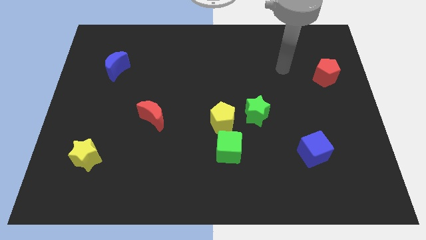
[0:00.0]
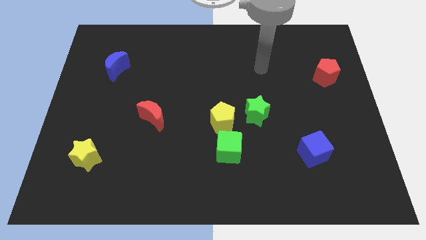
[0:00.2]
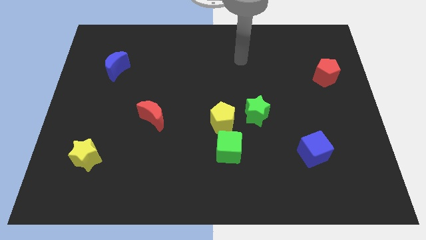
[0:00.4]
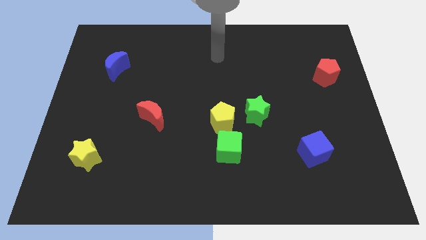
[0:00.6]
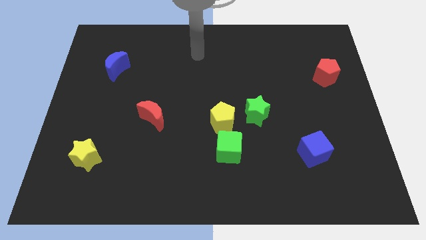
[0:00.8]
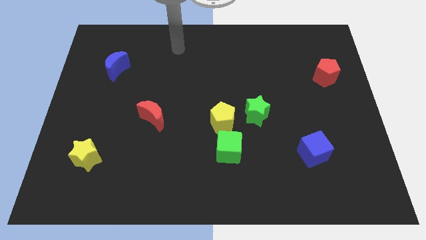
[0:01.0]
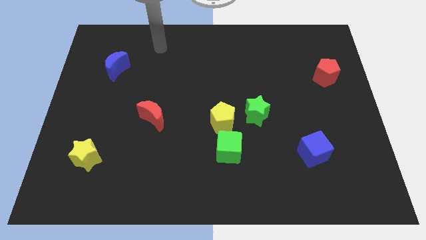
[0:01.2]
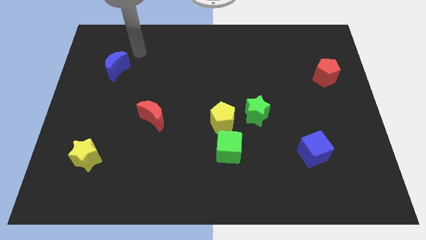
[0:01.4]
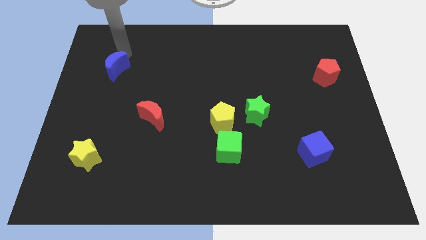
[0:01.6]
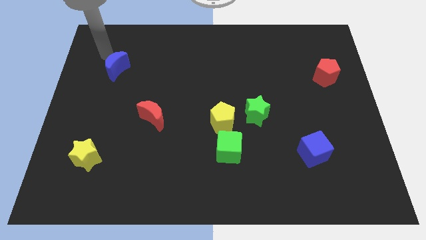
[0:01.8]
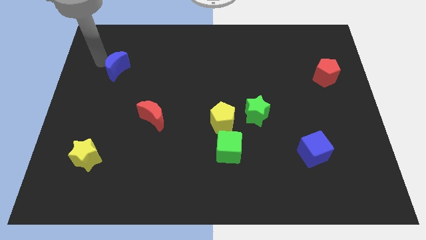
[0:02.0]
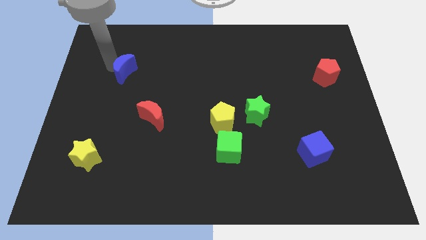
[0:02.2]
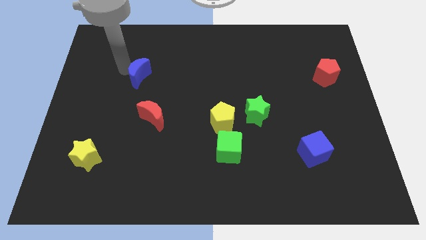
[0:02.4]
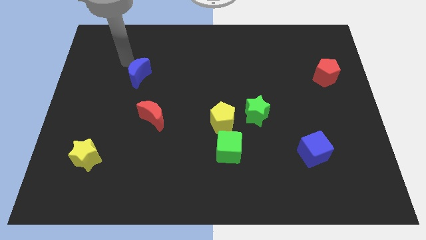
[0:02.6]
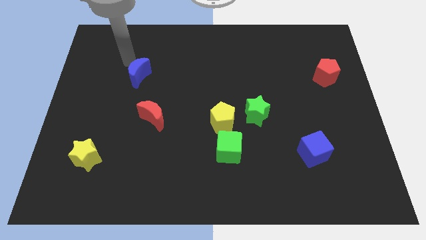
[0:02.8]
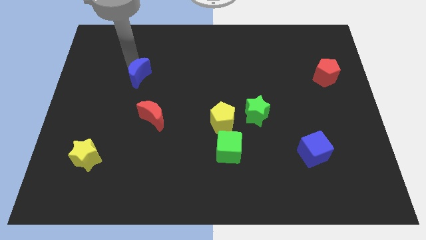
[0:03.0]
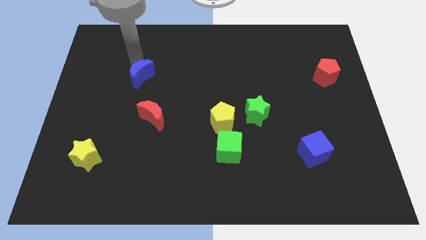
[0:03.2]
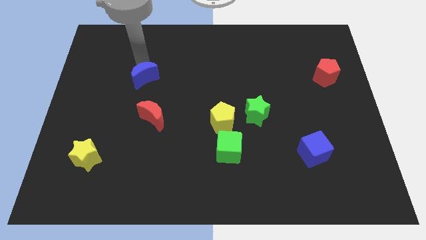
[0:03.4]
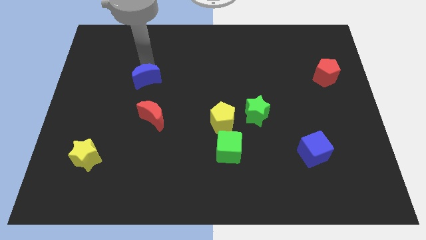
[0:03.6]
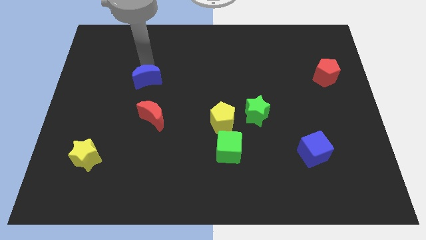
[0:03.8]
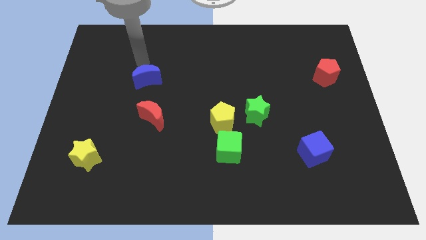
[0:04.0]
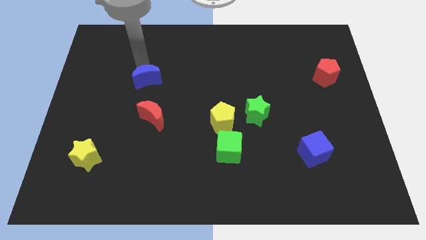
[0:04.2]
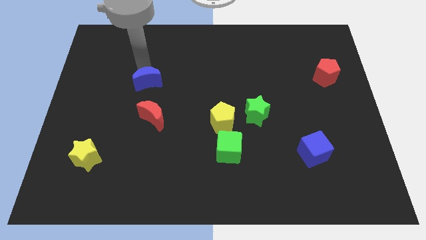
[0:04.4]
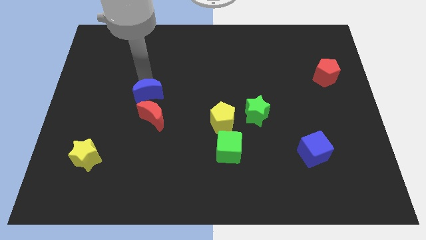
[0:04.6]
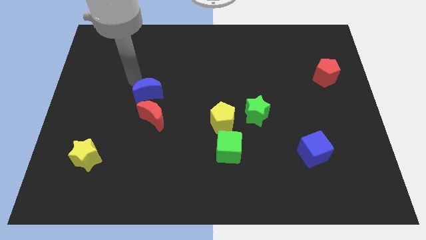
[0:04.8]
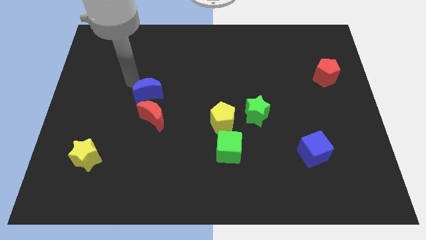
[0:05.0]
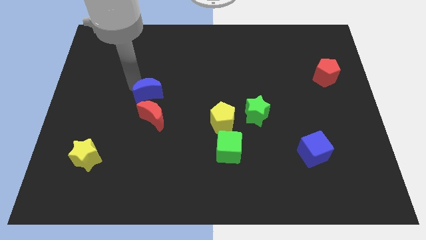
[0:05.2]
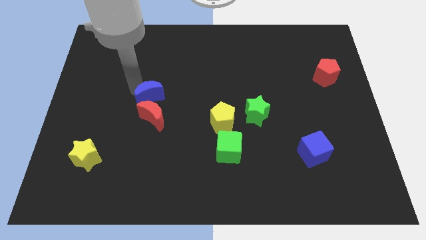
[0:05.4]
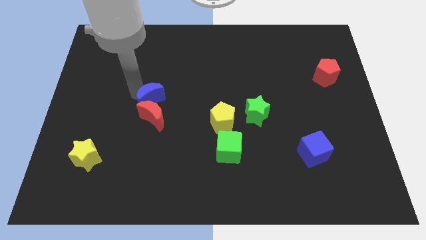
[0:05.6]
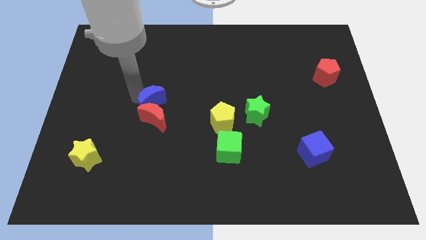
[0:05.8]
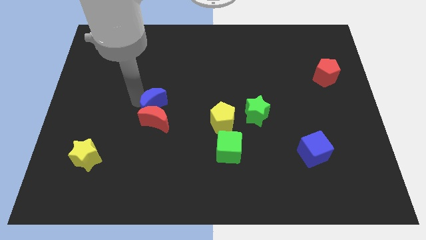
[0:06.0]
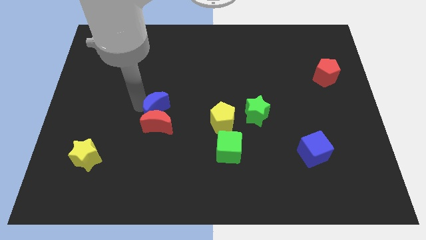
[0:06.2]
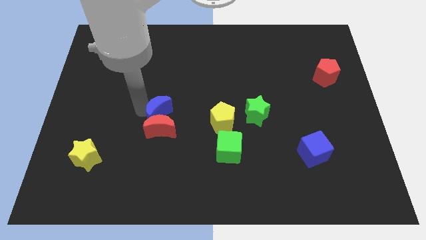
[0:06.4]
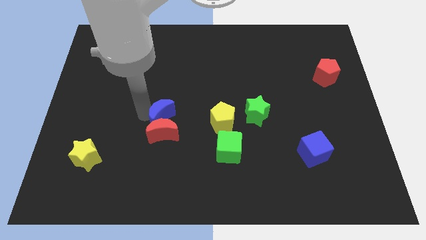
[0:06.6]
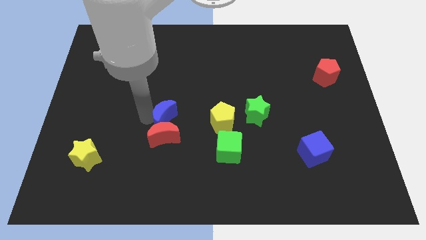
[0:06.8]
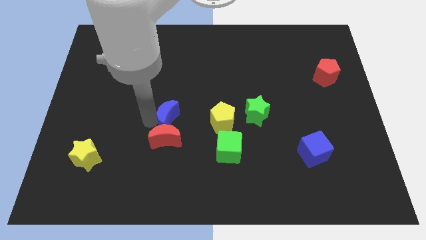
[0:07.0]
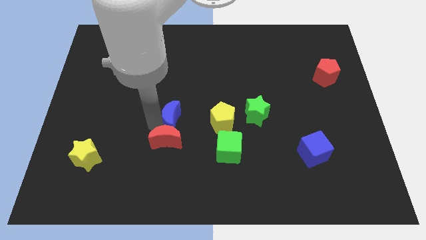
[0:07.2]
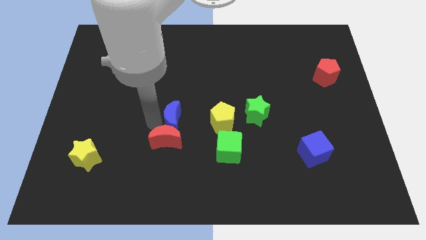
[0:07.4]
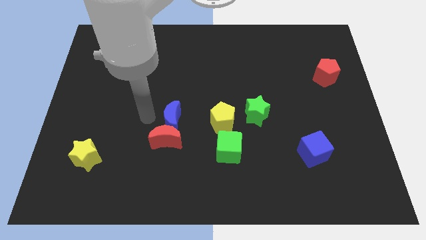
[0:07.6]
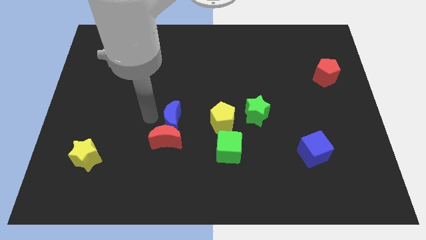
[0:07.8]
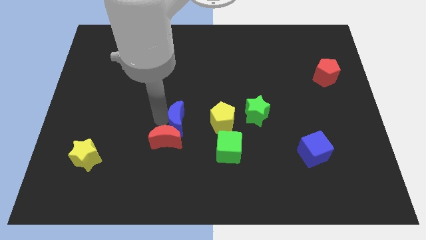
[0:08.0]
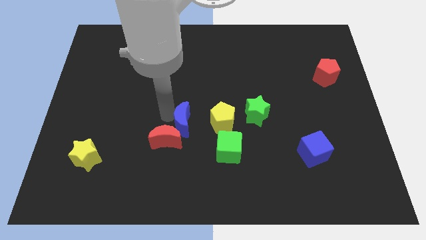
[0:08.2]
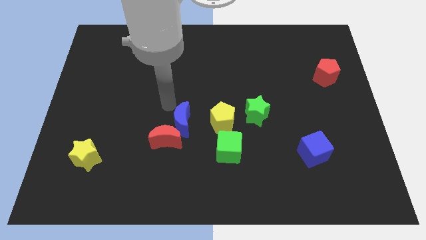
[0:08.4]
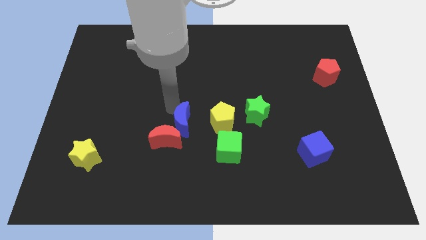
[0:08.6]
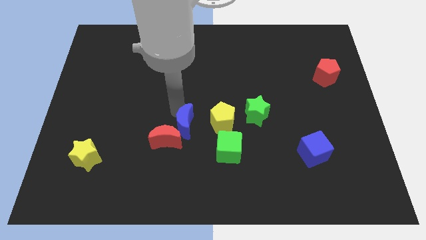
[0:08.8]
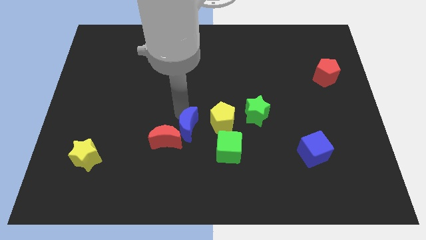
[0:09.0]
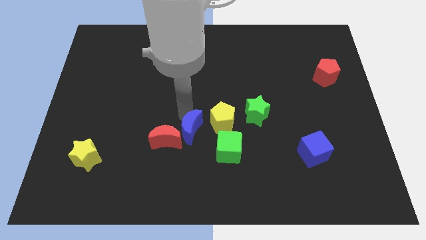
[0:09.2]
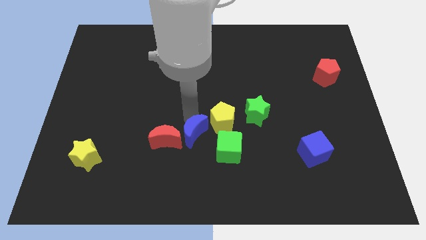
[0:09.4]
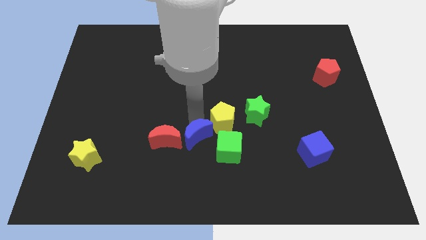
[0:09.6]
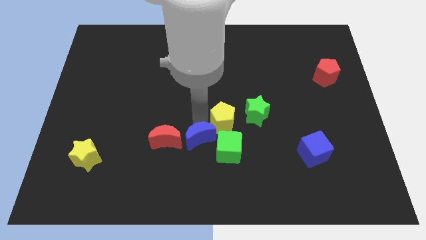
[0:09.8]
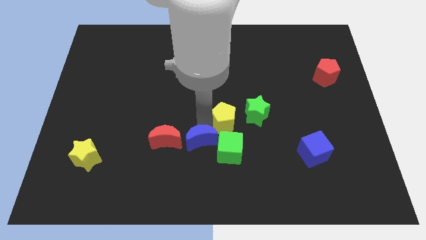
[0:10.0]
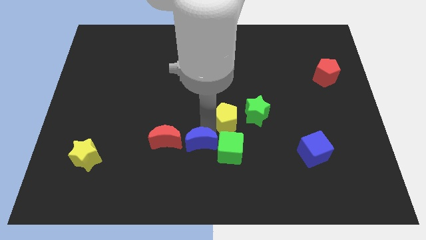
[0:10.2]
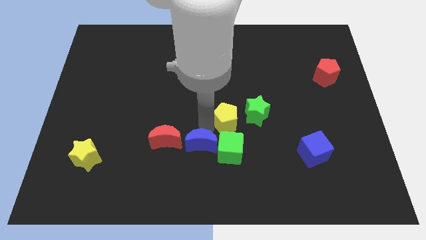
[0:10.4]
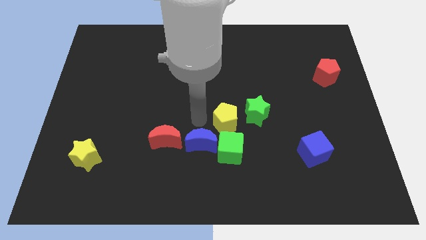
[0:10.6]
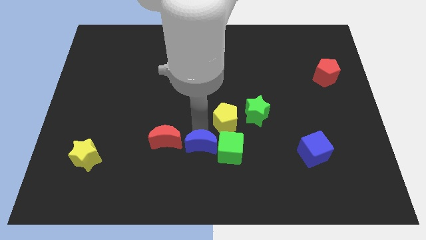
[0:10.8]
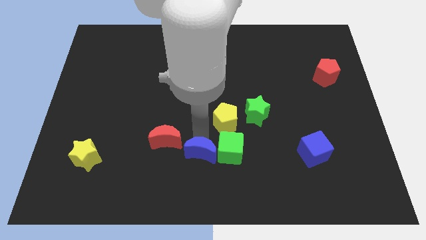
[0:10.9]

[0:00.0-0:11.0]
slide the blue moon diagonally down and to the left of the green cube

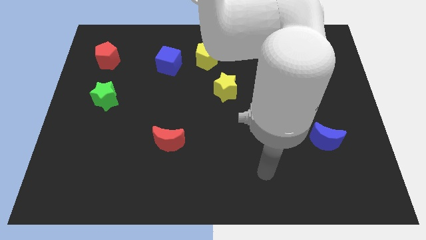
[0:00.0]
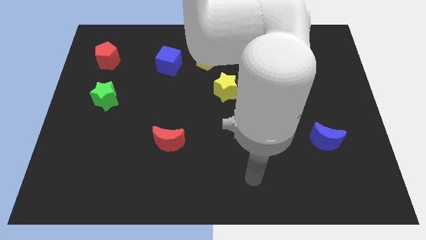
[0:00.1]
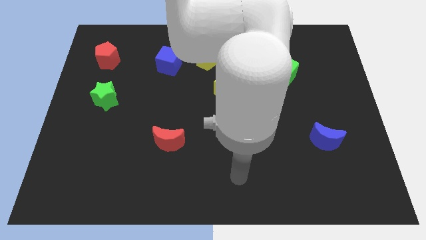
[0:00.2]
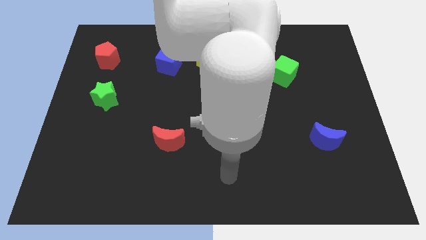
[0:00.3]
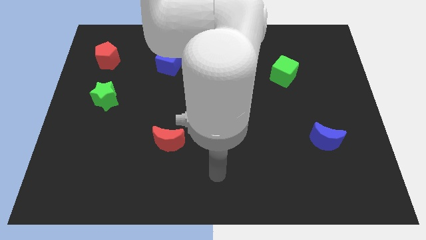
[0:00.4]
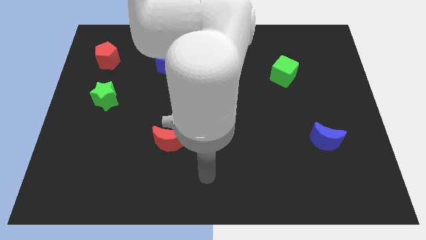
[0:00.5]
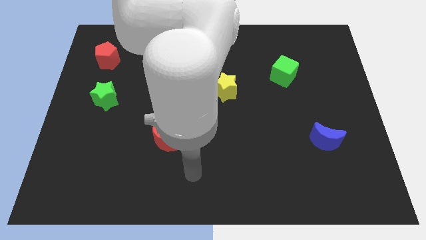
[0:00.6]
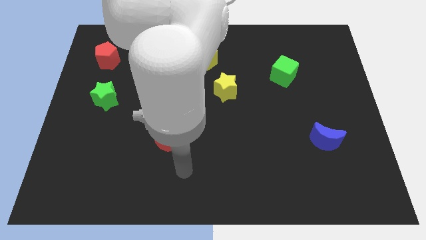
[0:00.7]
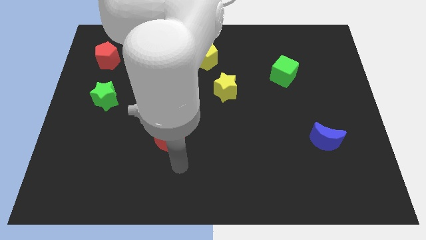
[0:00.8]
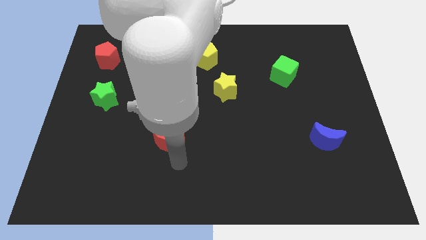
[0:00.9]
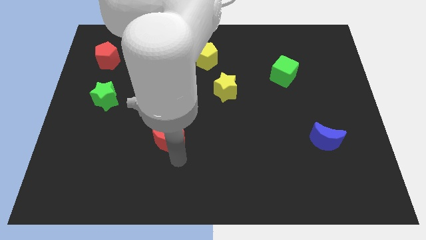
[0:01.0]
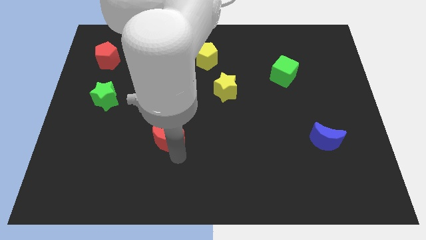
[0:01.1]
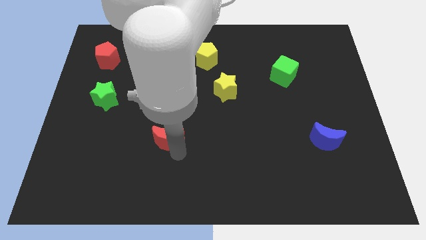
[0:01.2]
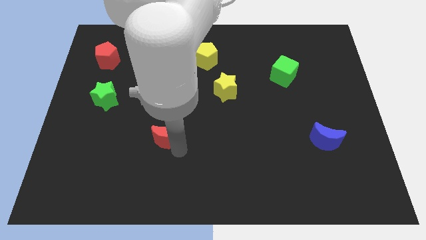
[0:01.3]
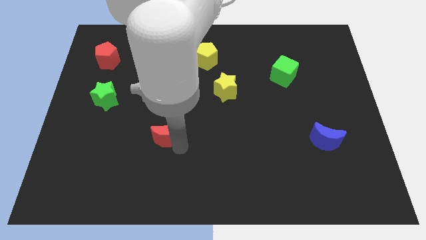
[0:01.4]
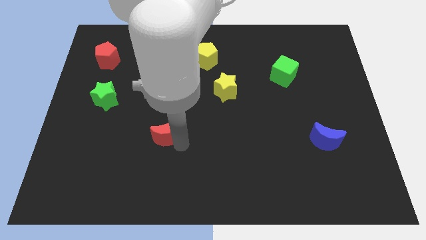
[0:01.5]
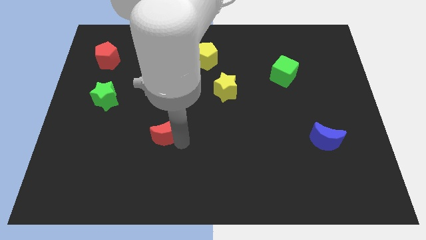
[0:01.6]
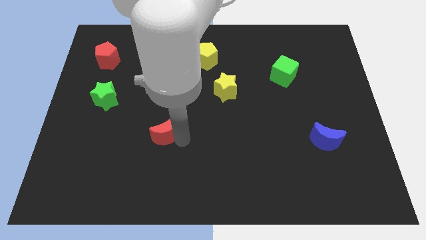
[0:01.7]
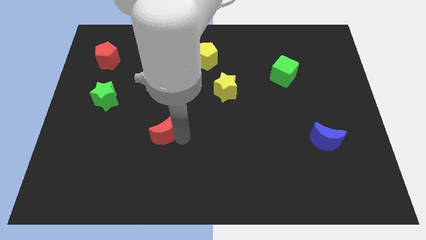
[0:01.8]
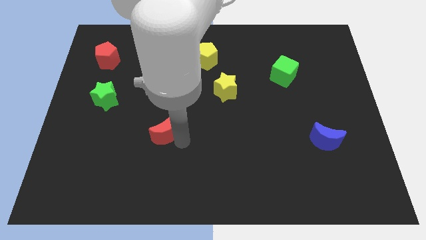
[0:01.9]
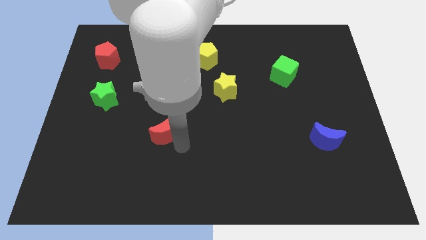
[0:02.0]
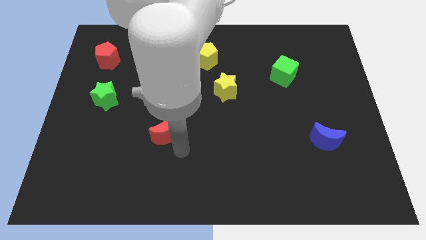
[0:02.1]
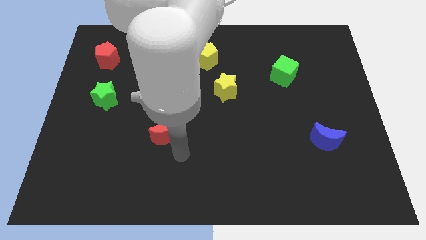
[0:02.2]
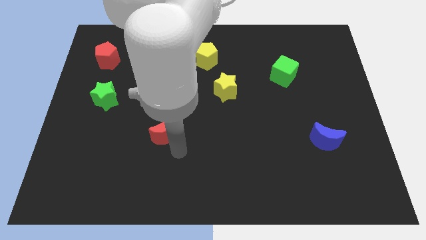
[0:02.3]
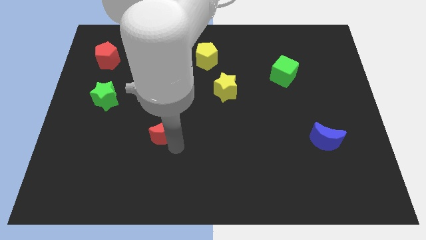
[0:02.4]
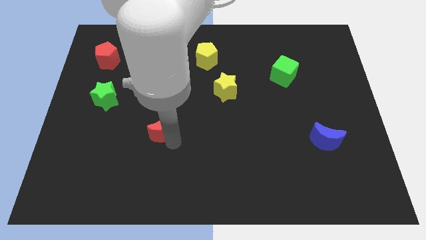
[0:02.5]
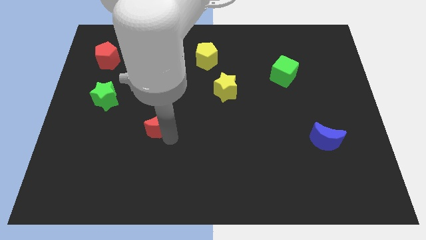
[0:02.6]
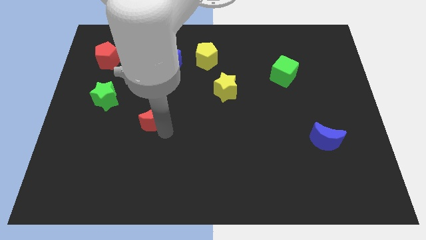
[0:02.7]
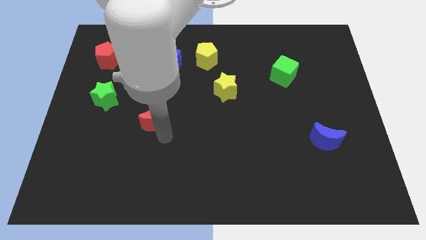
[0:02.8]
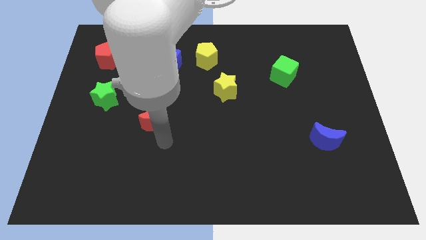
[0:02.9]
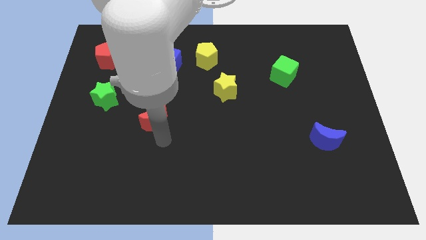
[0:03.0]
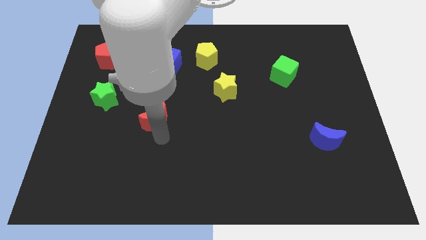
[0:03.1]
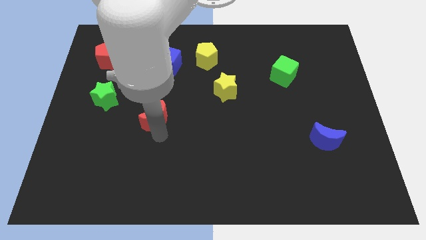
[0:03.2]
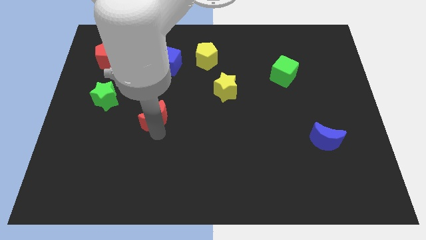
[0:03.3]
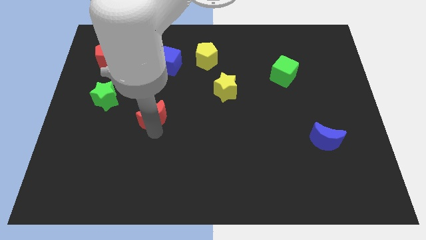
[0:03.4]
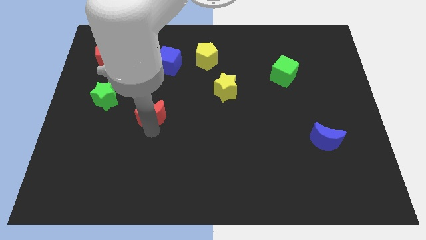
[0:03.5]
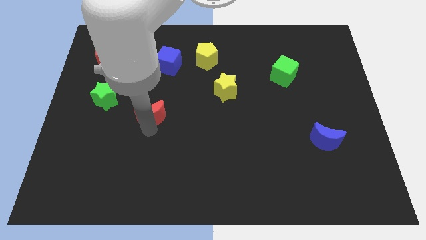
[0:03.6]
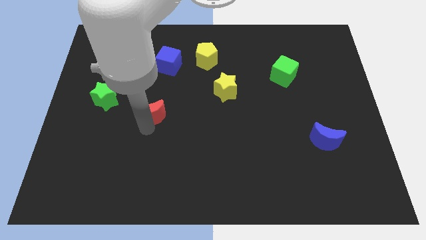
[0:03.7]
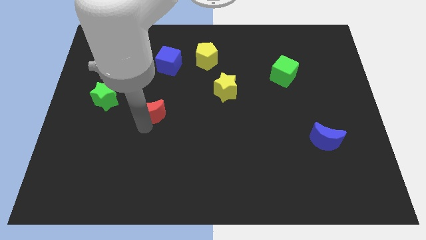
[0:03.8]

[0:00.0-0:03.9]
move the red moon to the right of the green star
